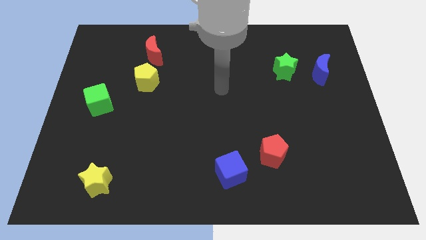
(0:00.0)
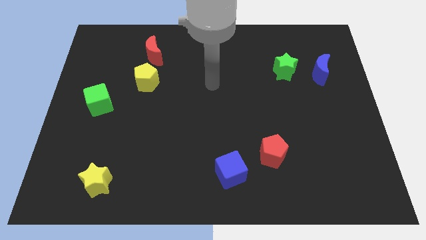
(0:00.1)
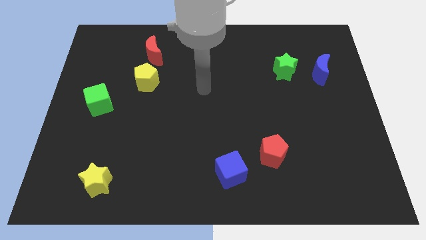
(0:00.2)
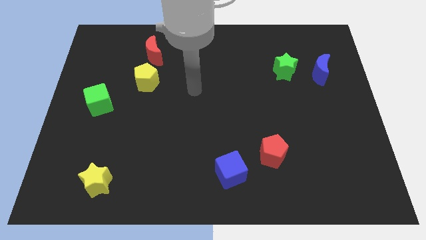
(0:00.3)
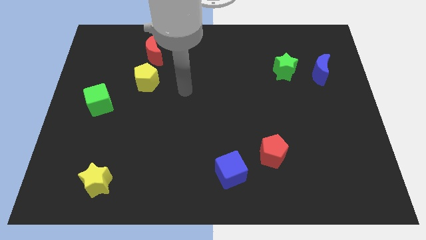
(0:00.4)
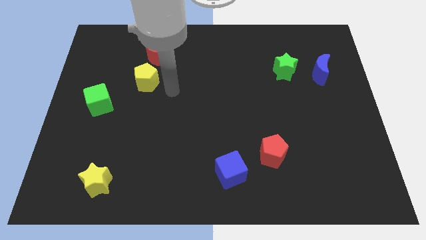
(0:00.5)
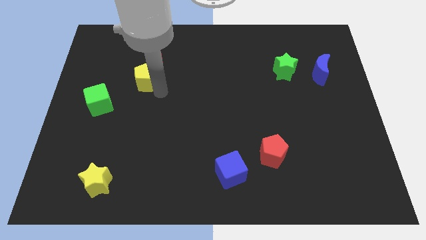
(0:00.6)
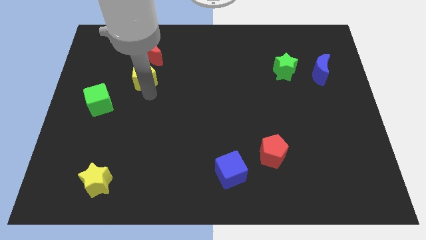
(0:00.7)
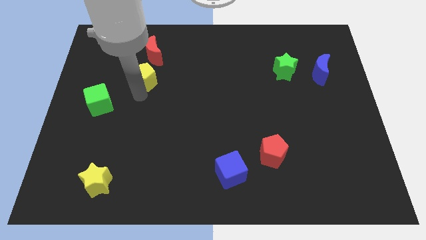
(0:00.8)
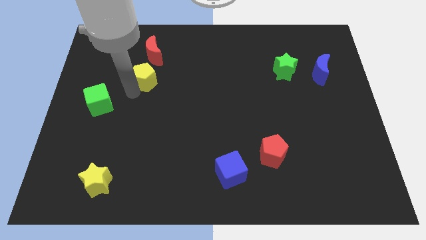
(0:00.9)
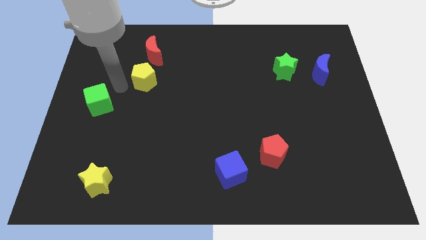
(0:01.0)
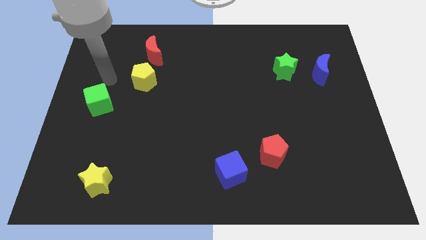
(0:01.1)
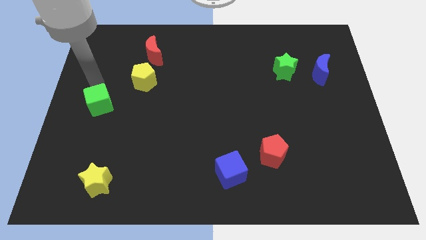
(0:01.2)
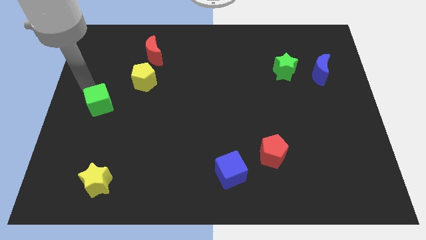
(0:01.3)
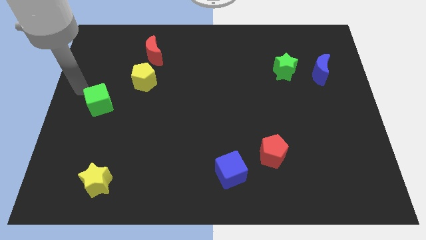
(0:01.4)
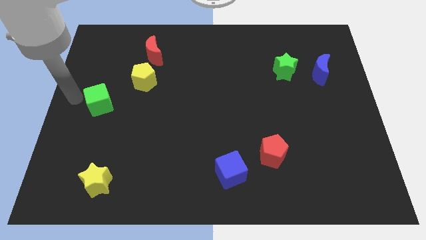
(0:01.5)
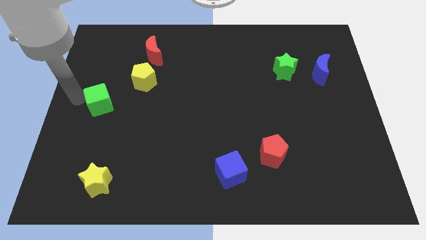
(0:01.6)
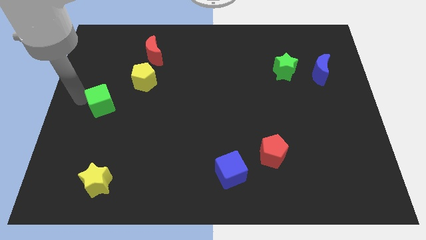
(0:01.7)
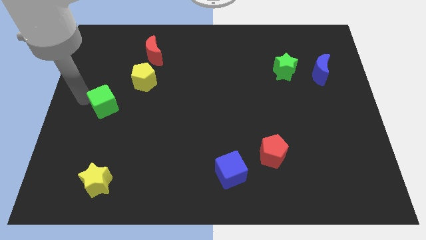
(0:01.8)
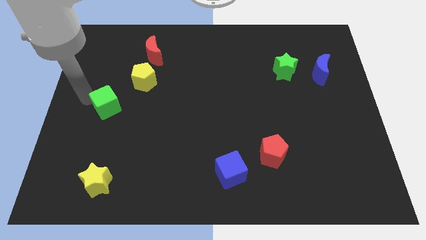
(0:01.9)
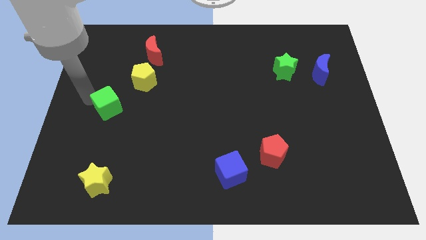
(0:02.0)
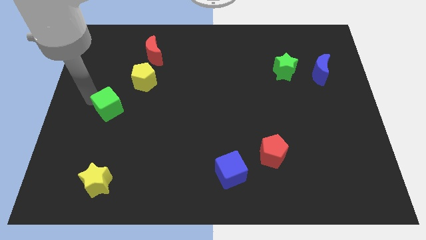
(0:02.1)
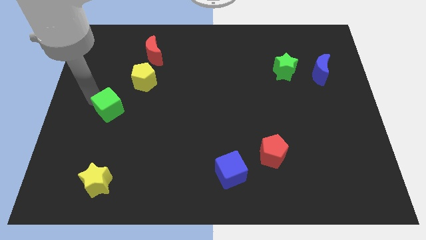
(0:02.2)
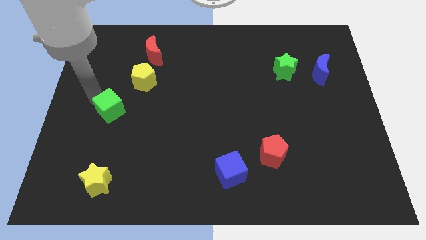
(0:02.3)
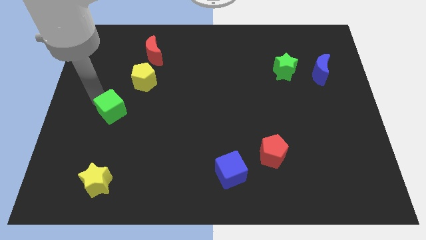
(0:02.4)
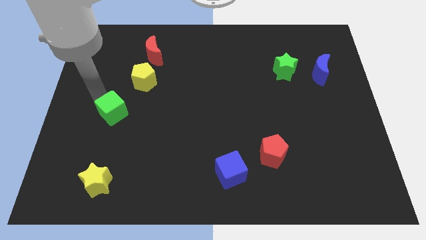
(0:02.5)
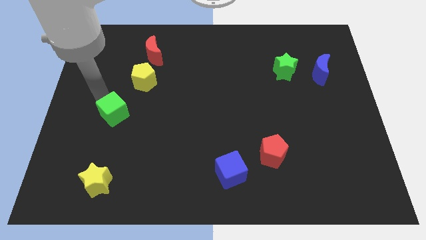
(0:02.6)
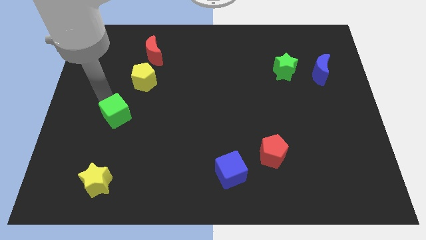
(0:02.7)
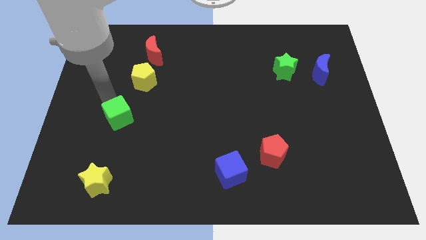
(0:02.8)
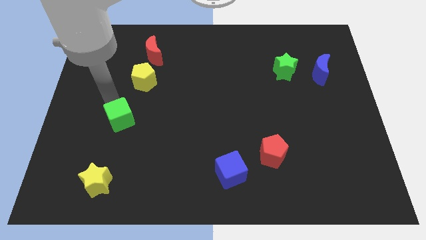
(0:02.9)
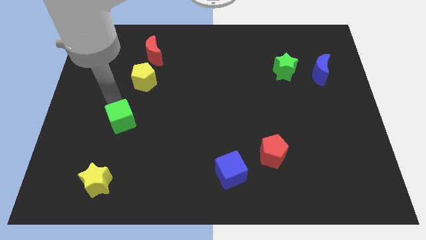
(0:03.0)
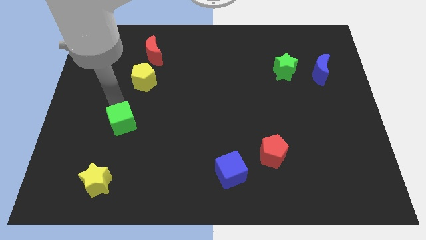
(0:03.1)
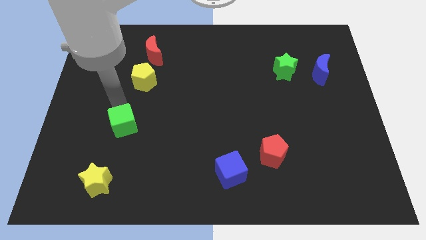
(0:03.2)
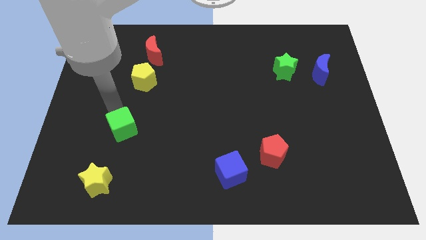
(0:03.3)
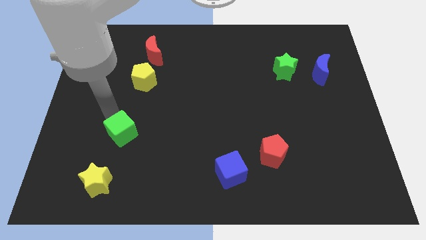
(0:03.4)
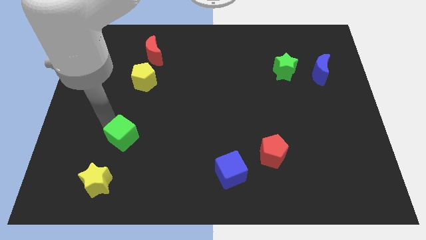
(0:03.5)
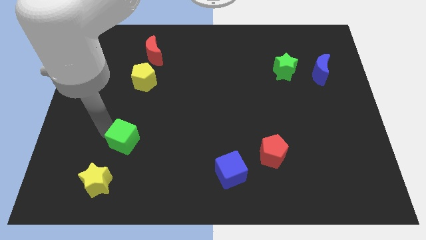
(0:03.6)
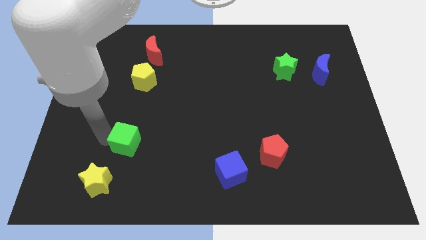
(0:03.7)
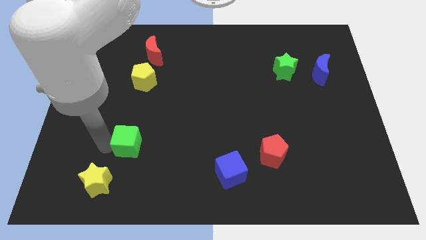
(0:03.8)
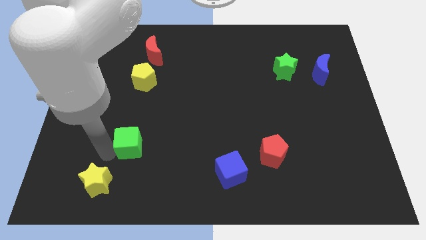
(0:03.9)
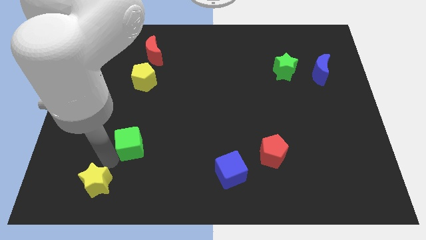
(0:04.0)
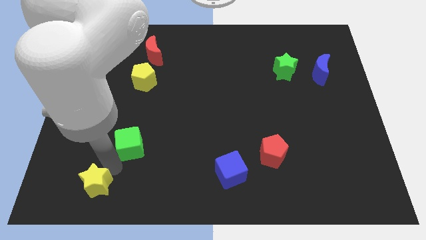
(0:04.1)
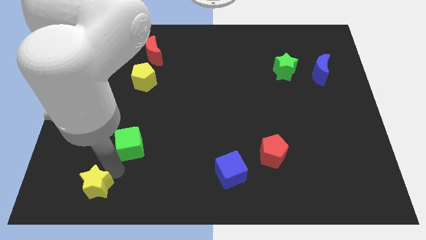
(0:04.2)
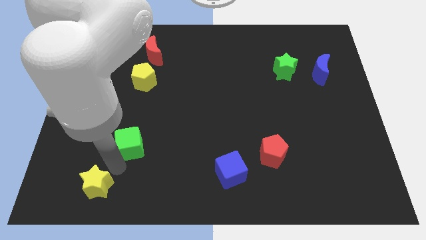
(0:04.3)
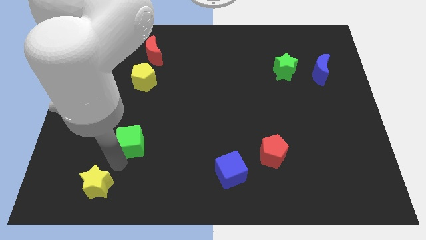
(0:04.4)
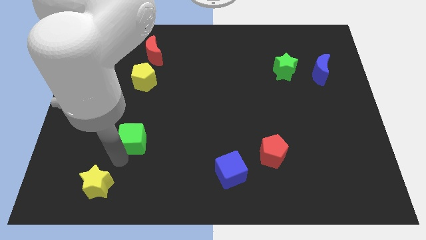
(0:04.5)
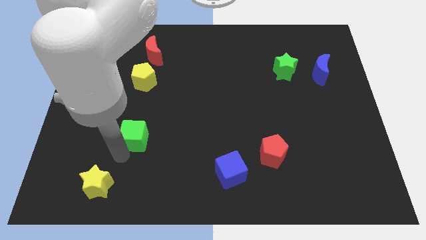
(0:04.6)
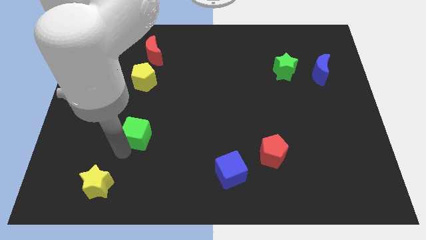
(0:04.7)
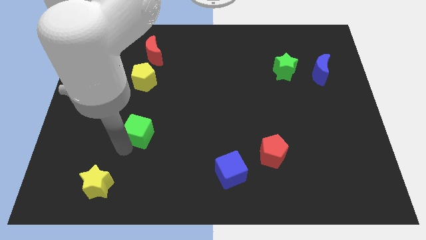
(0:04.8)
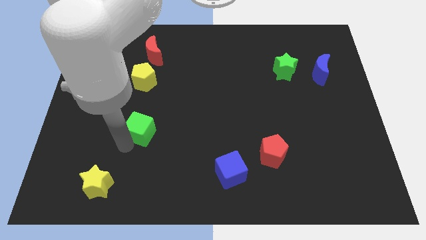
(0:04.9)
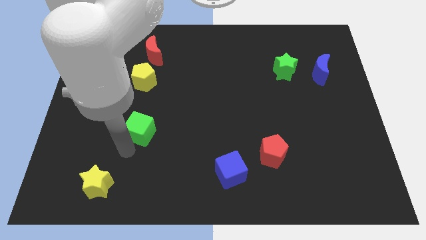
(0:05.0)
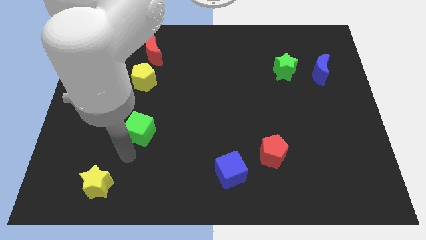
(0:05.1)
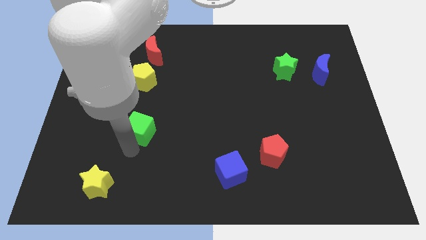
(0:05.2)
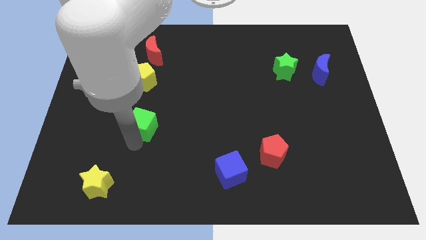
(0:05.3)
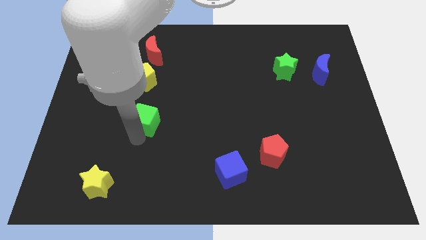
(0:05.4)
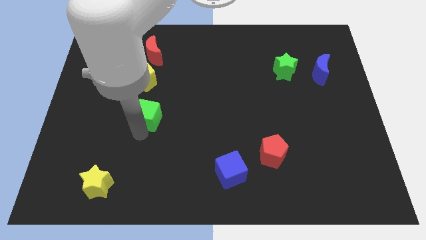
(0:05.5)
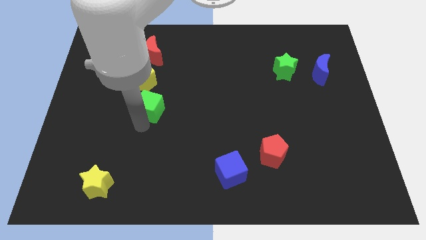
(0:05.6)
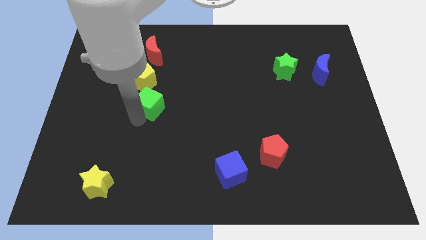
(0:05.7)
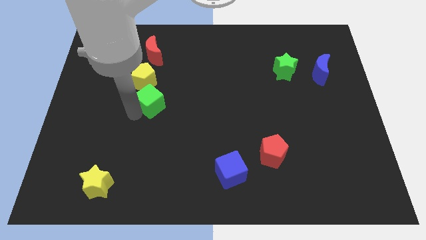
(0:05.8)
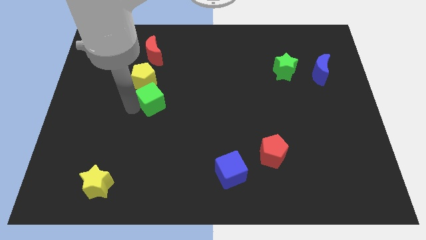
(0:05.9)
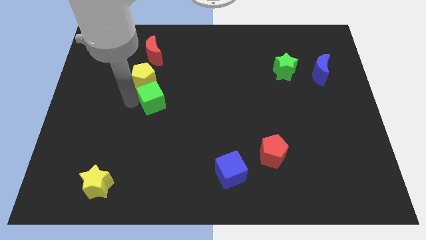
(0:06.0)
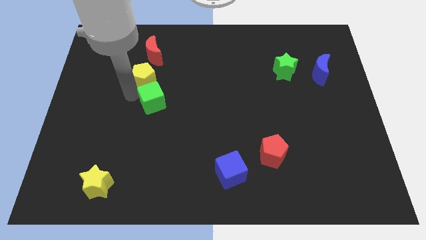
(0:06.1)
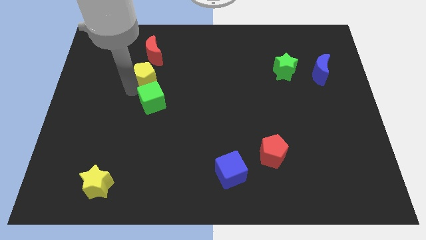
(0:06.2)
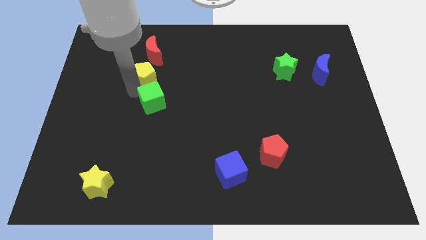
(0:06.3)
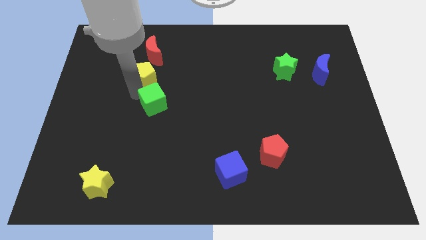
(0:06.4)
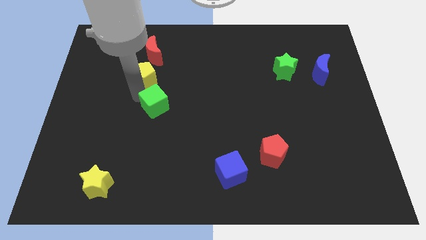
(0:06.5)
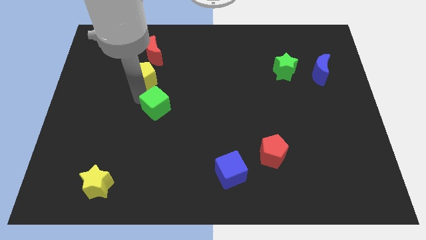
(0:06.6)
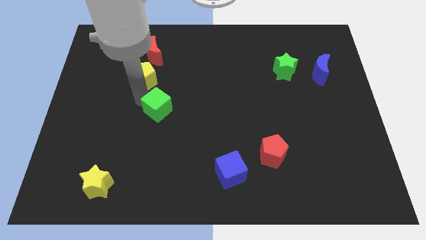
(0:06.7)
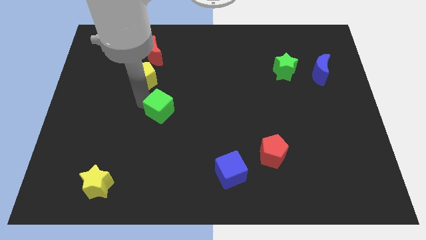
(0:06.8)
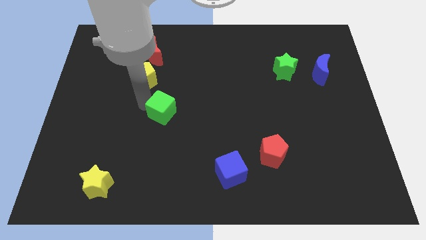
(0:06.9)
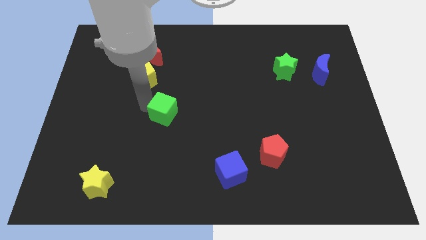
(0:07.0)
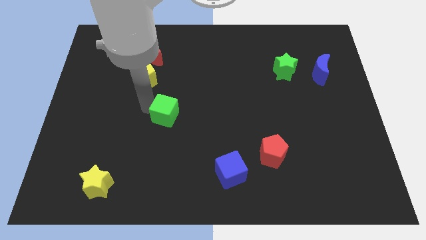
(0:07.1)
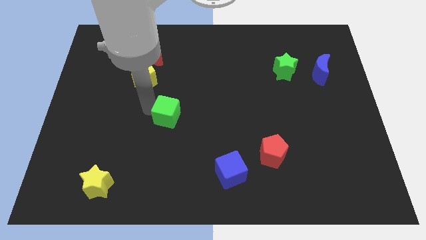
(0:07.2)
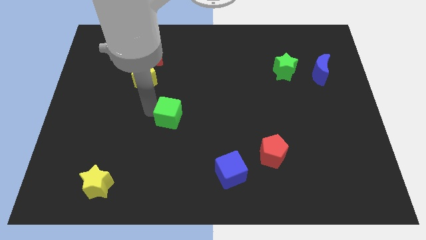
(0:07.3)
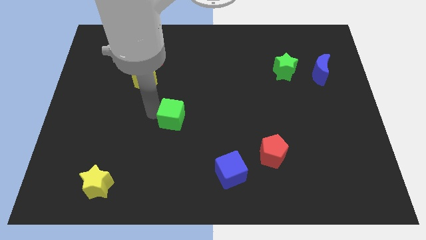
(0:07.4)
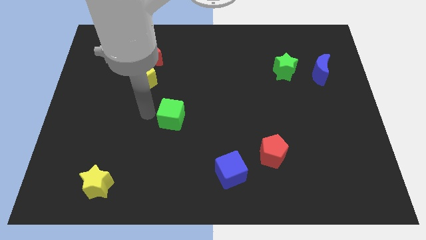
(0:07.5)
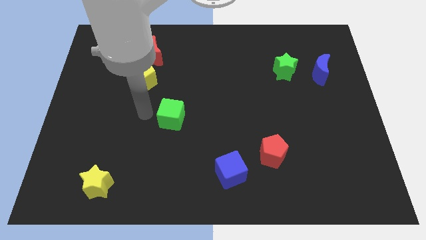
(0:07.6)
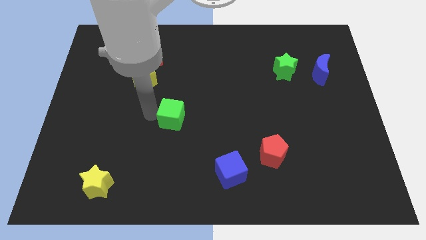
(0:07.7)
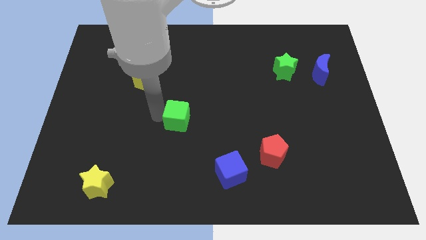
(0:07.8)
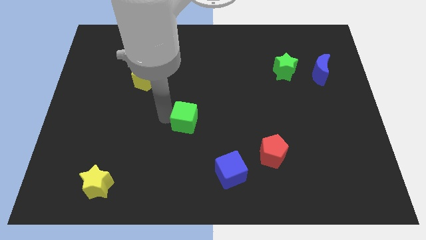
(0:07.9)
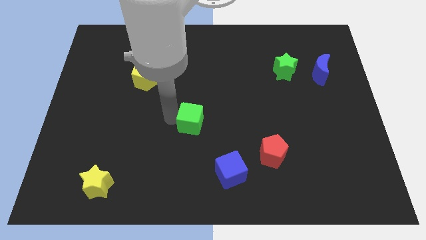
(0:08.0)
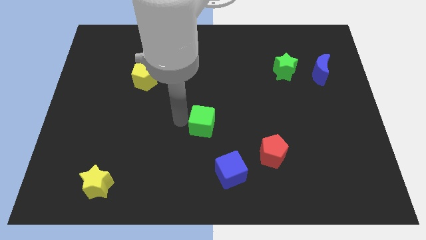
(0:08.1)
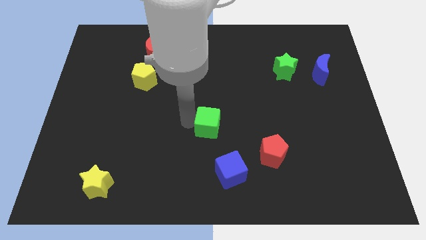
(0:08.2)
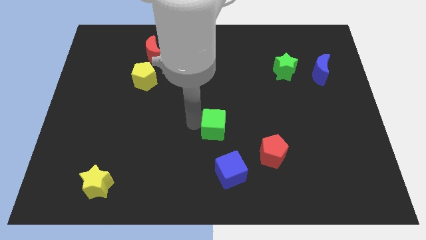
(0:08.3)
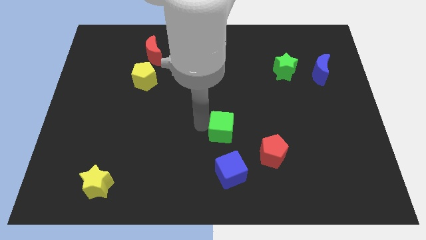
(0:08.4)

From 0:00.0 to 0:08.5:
move the green cube to the top left of the red pentagon
